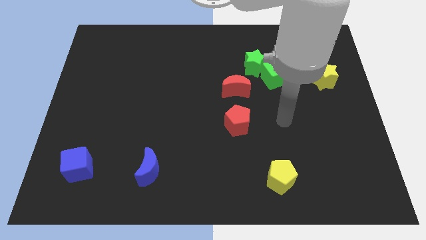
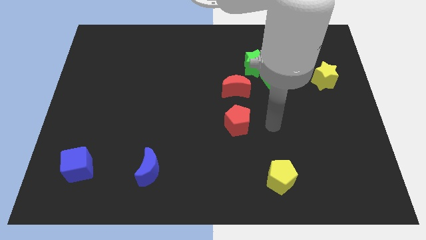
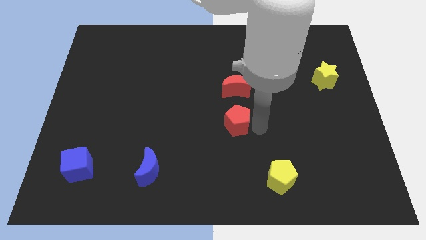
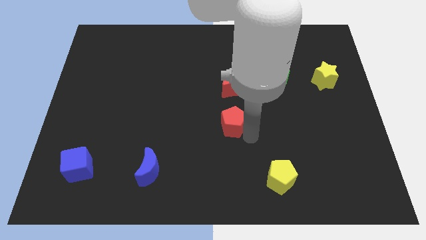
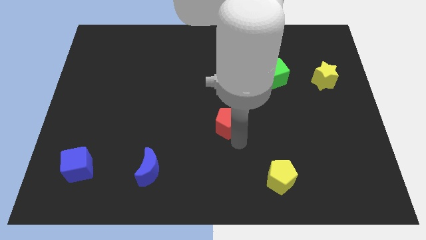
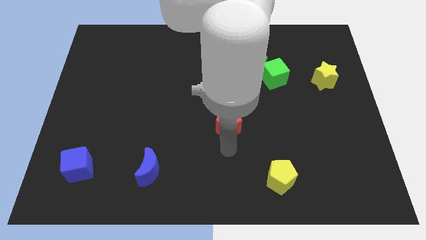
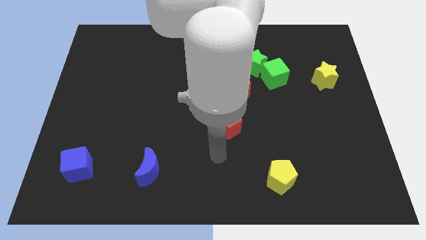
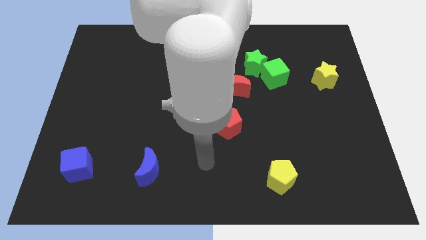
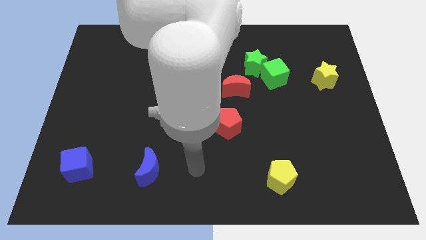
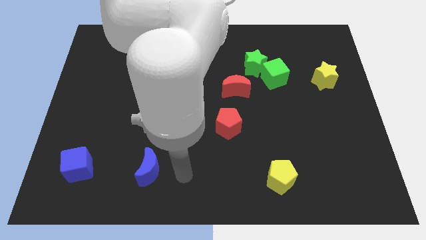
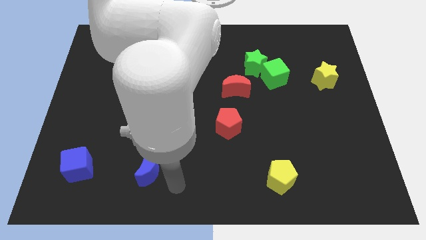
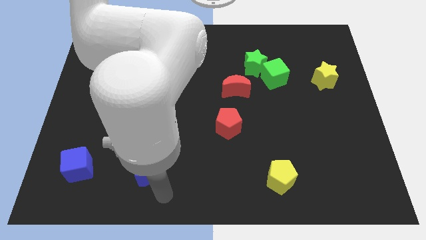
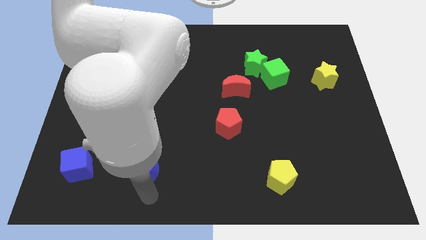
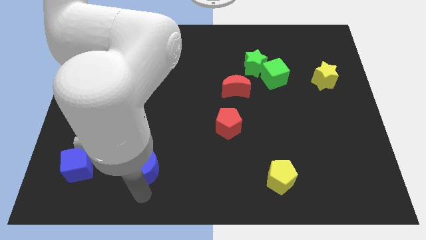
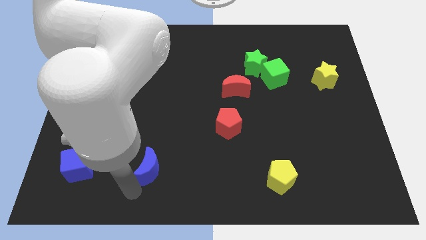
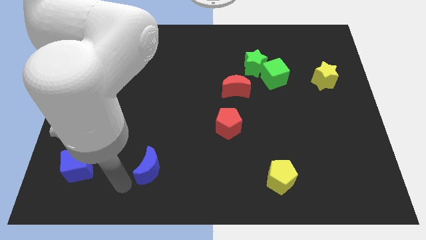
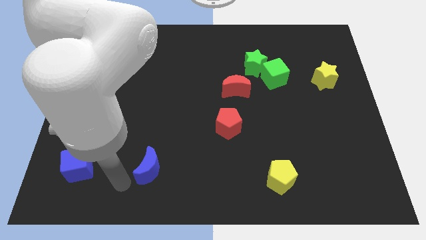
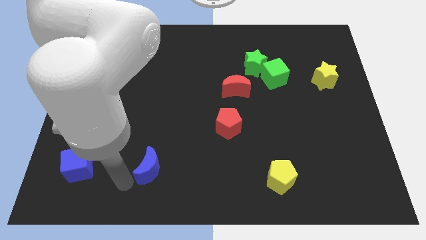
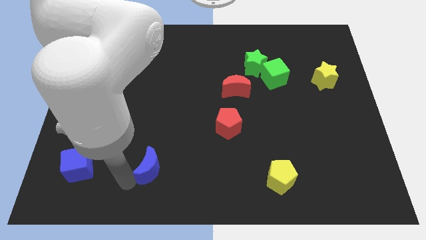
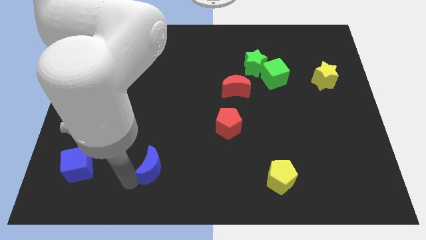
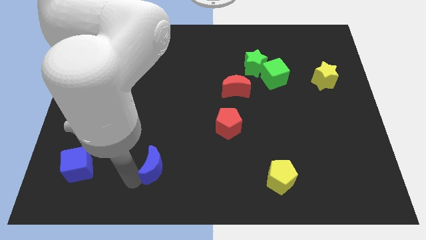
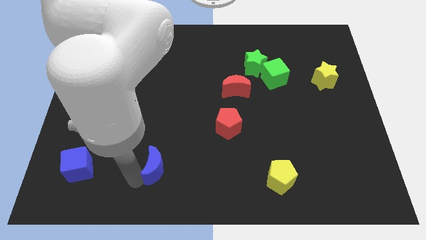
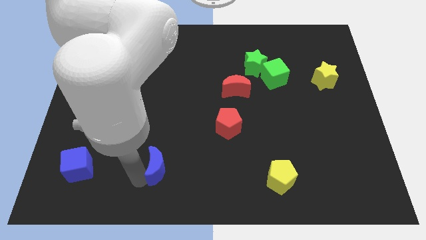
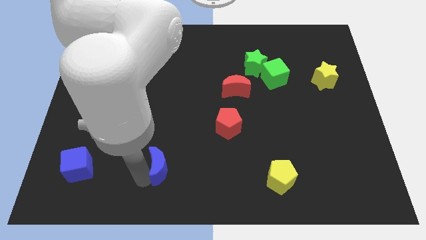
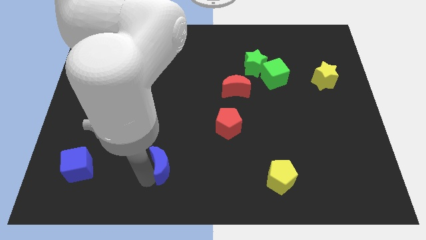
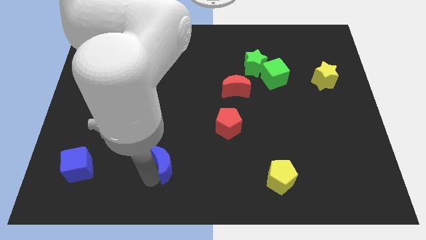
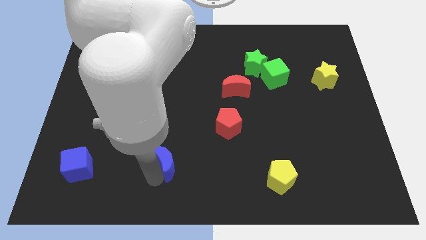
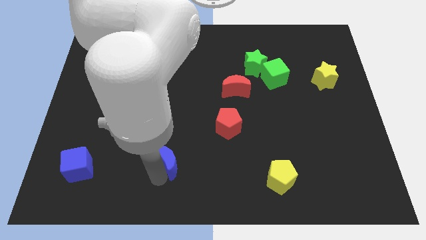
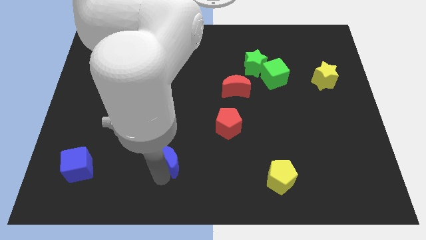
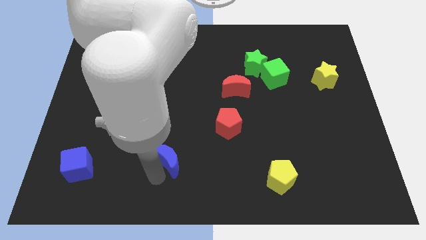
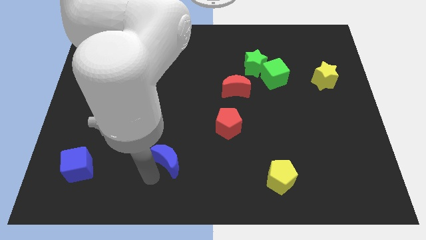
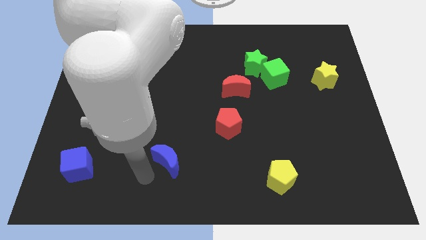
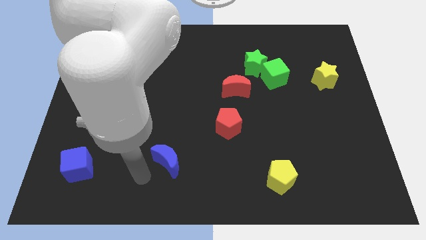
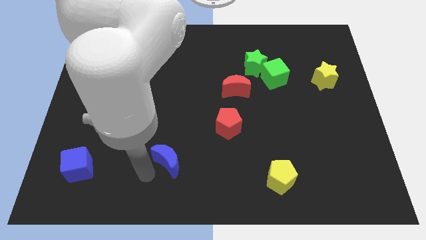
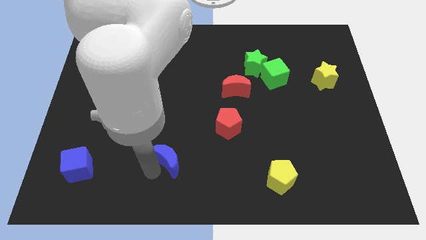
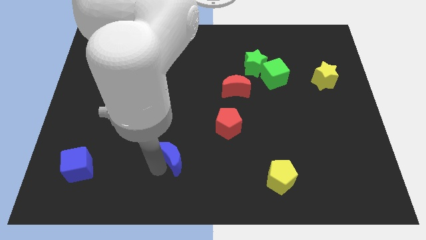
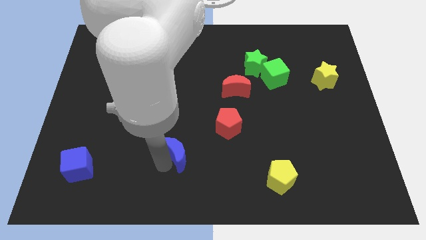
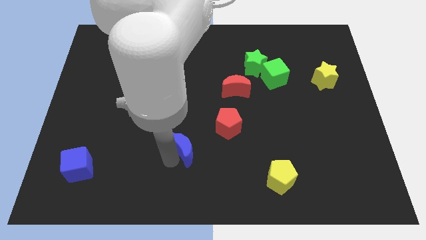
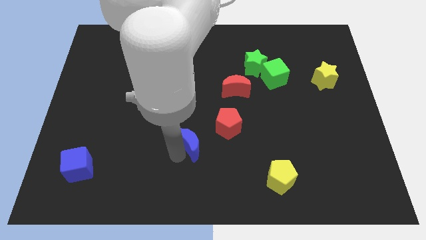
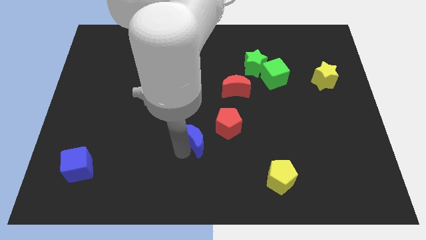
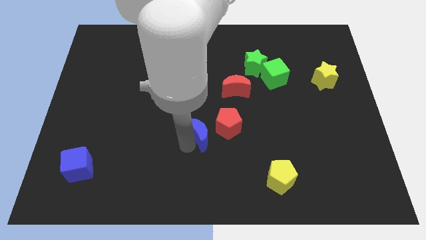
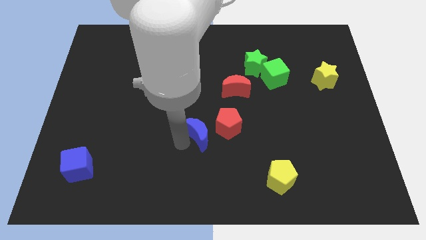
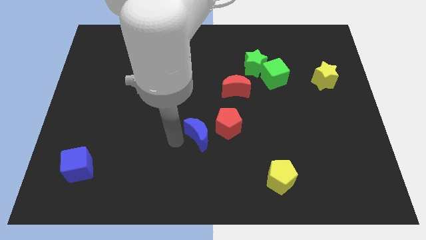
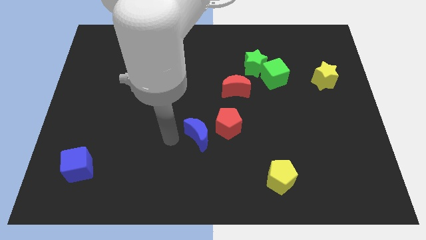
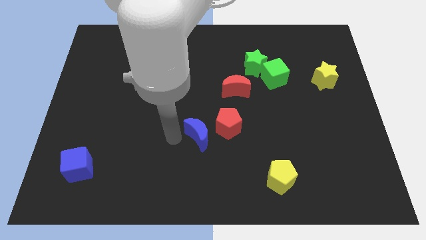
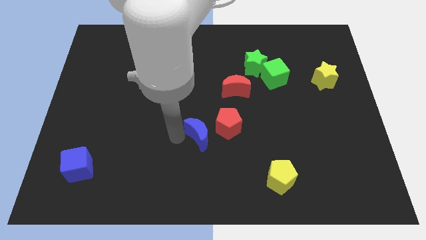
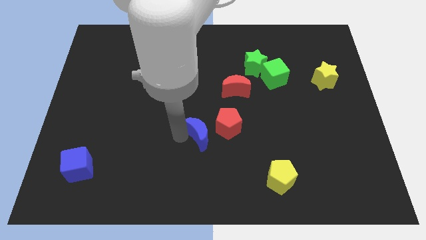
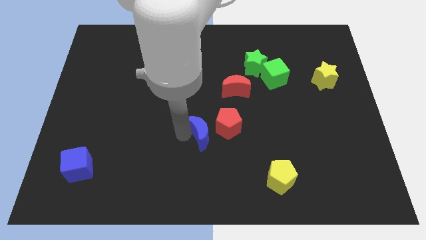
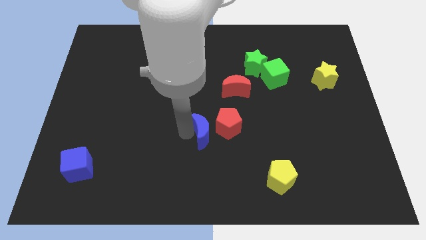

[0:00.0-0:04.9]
move the blue moon towards the red pentagon

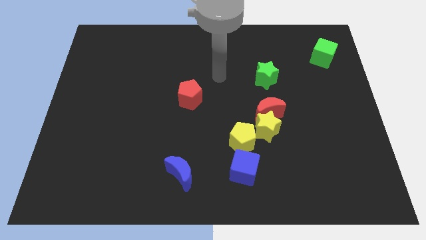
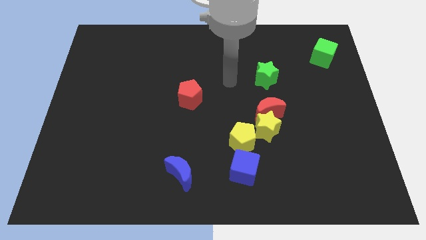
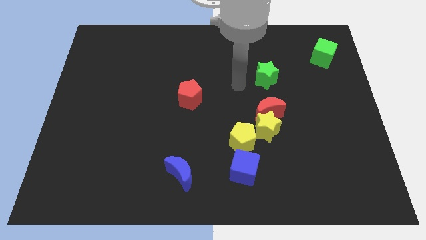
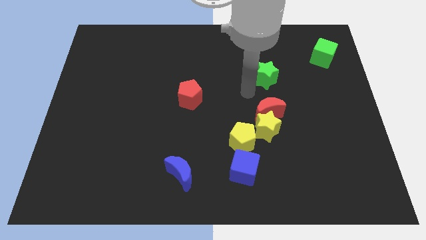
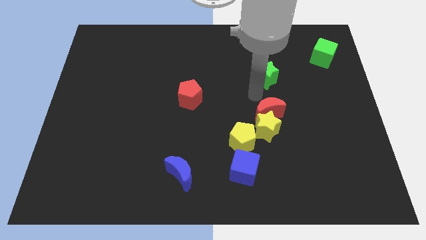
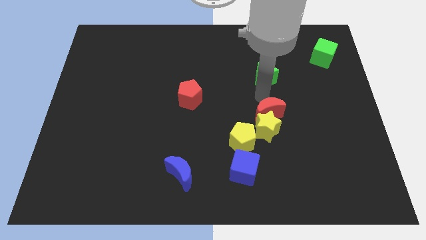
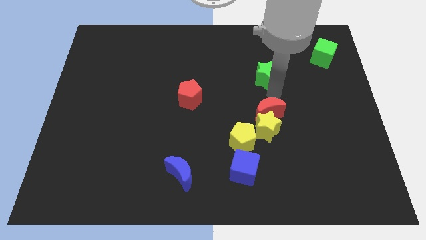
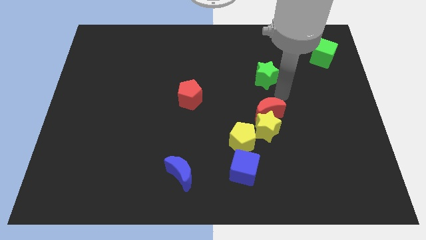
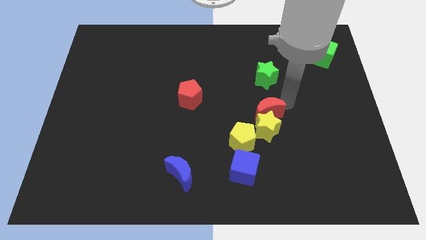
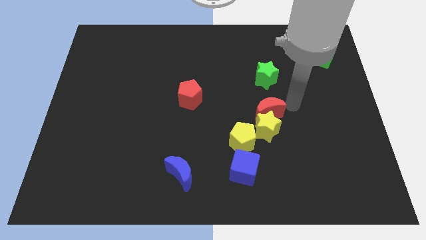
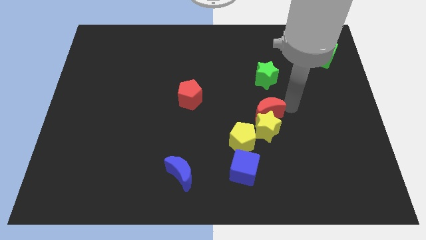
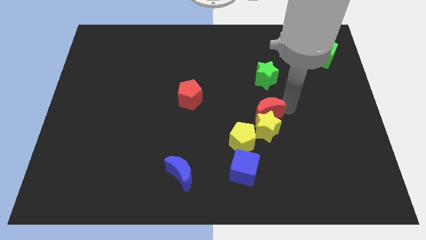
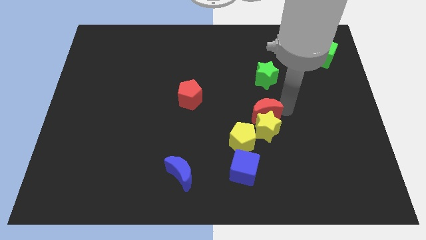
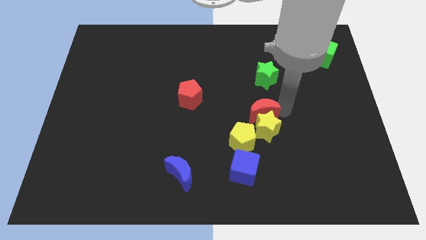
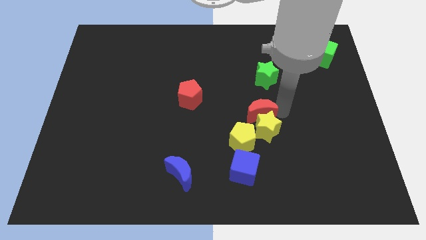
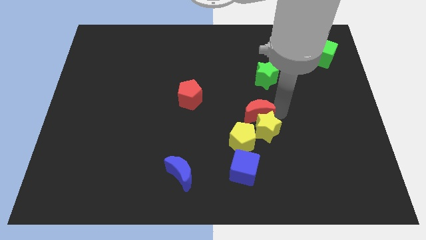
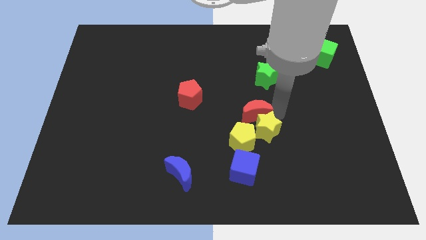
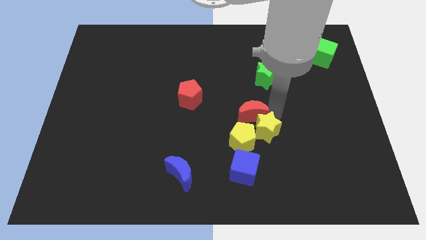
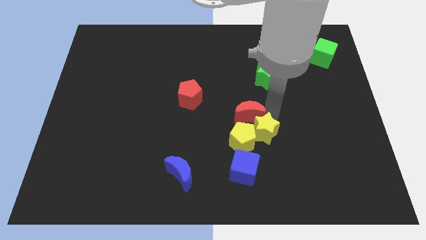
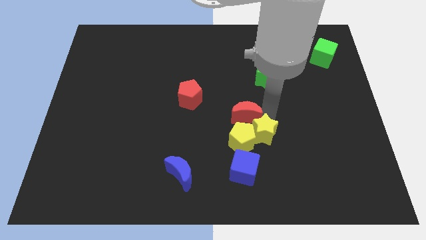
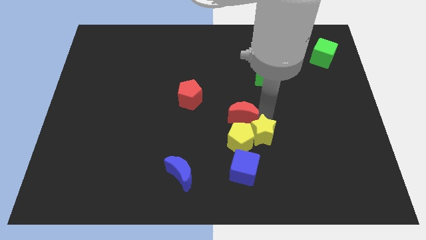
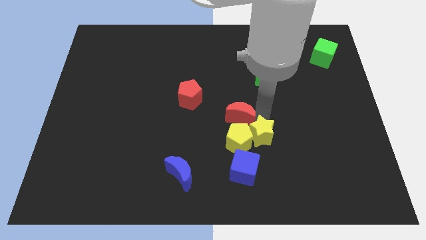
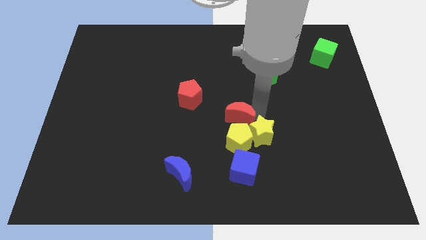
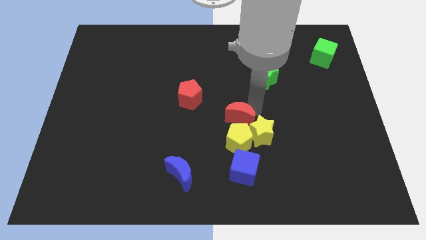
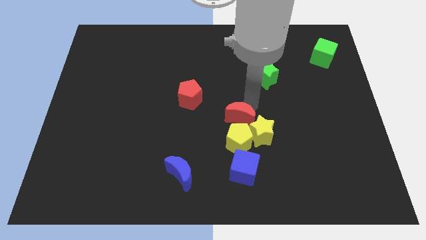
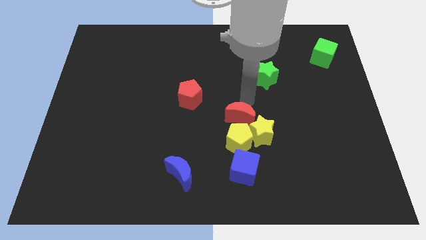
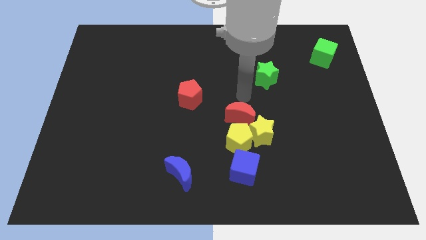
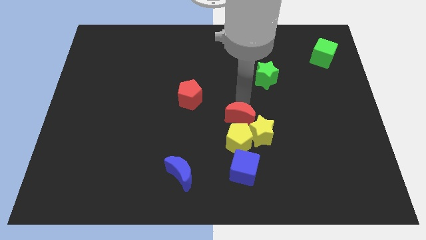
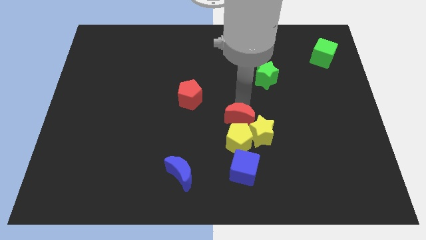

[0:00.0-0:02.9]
put the red moon next to the yellow pentagon
